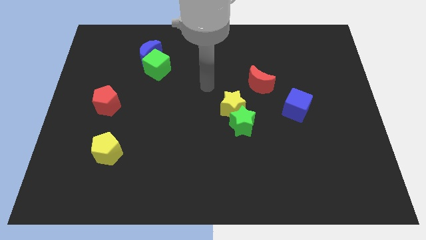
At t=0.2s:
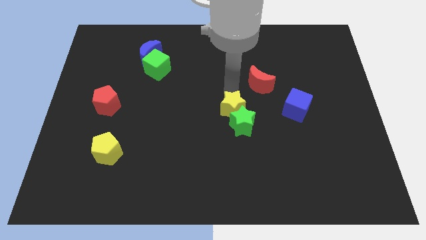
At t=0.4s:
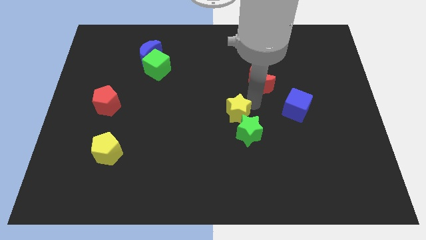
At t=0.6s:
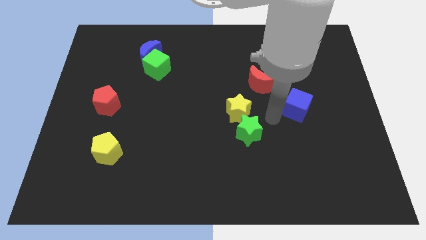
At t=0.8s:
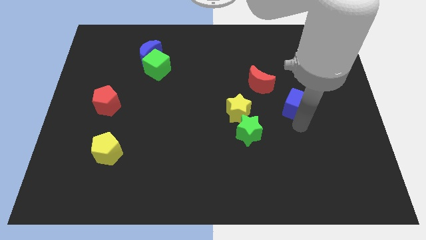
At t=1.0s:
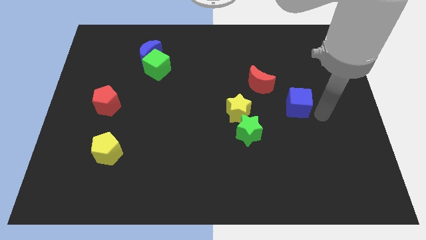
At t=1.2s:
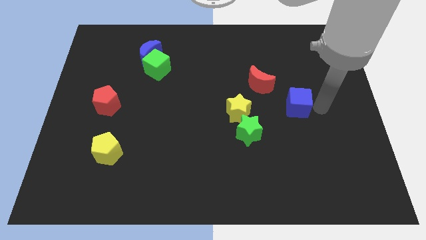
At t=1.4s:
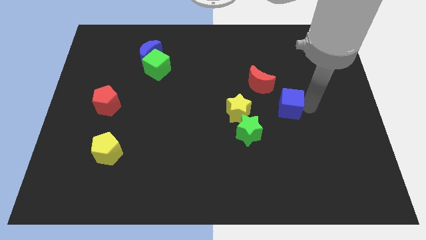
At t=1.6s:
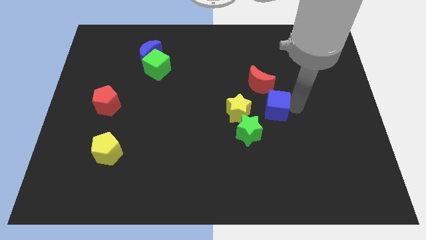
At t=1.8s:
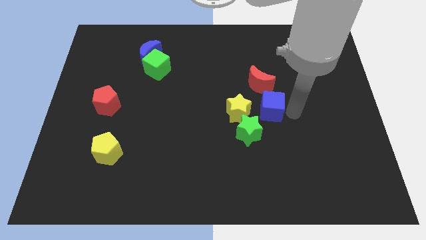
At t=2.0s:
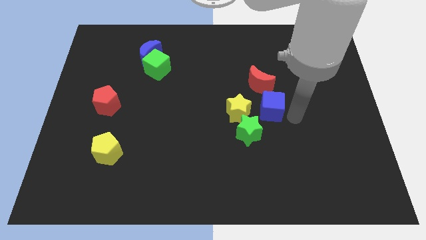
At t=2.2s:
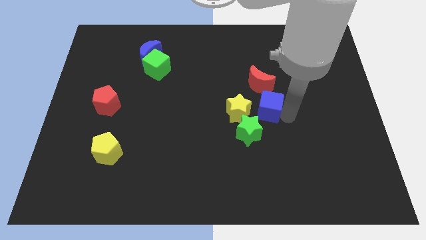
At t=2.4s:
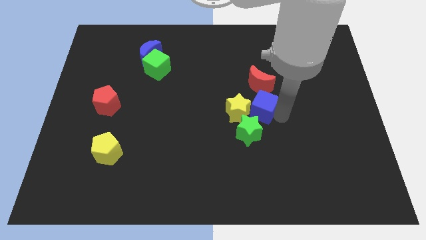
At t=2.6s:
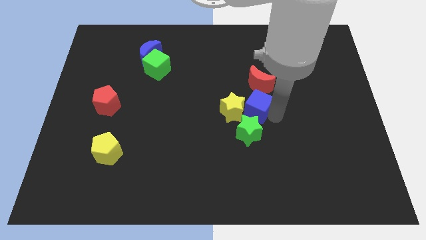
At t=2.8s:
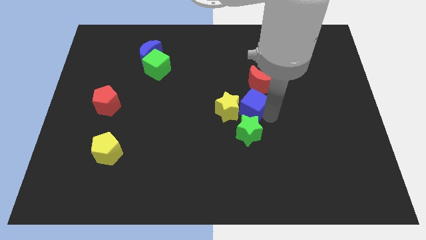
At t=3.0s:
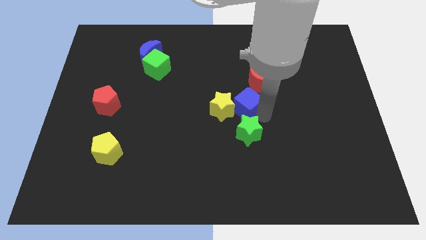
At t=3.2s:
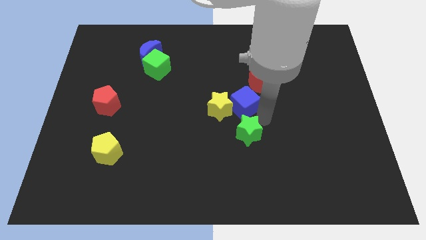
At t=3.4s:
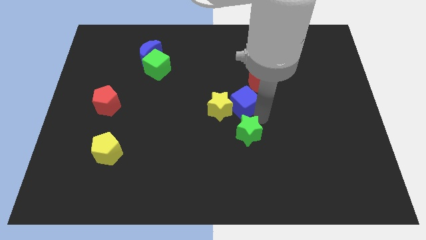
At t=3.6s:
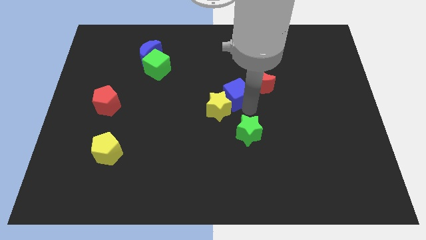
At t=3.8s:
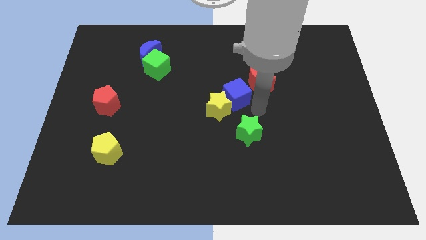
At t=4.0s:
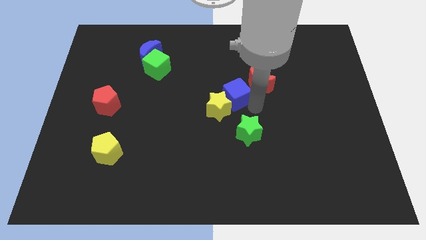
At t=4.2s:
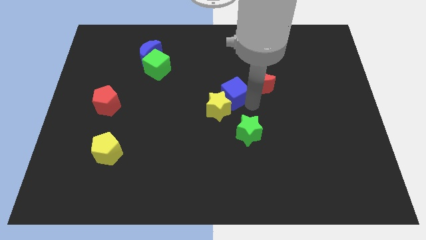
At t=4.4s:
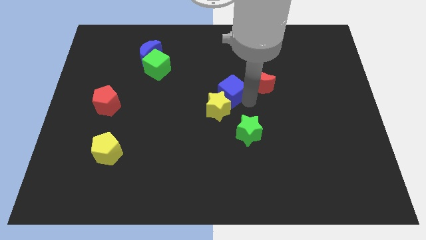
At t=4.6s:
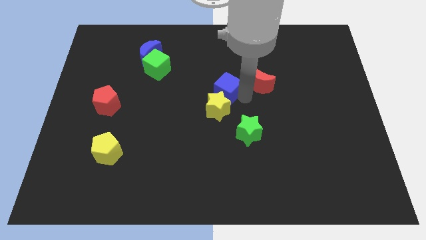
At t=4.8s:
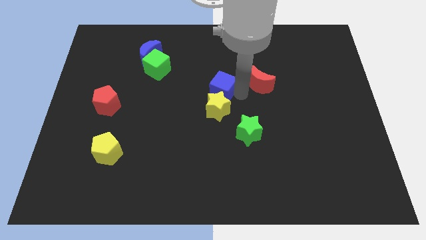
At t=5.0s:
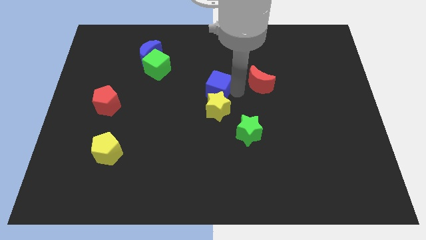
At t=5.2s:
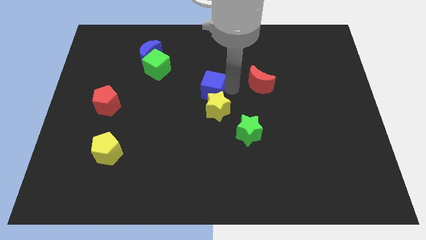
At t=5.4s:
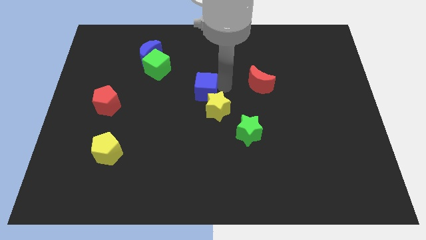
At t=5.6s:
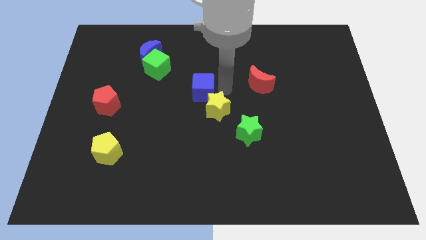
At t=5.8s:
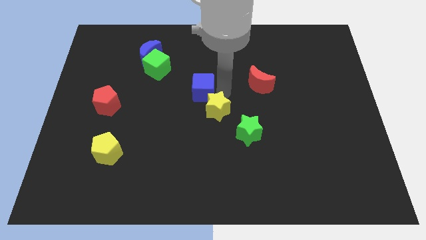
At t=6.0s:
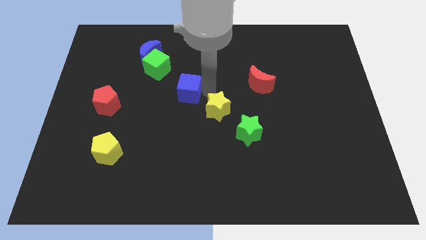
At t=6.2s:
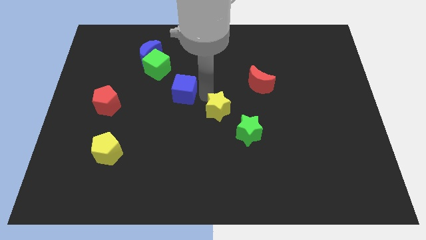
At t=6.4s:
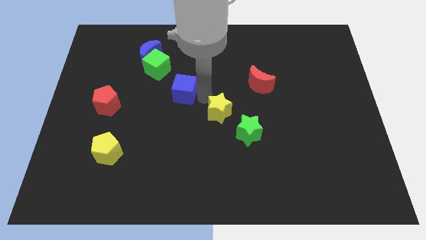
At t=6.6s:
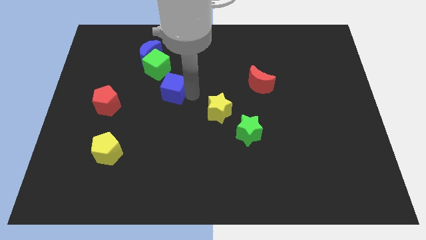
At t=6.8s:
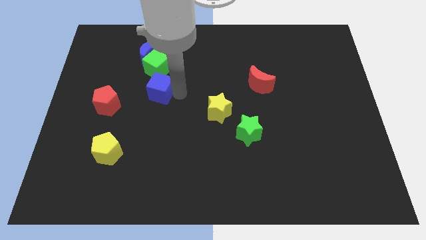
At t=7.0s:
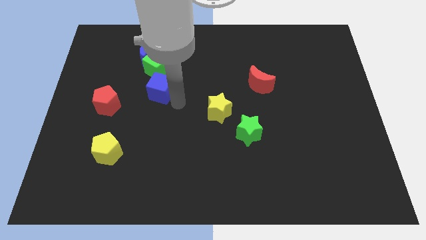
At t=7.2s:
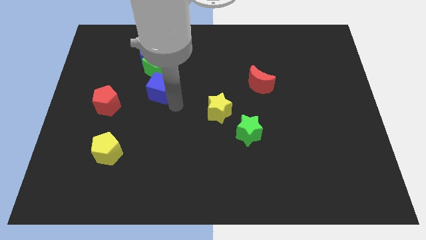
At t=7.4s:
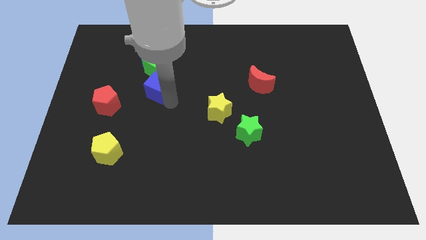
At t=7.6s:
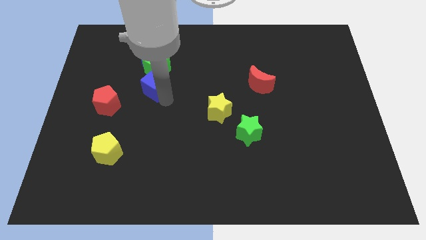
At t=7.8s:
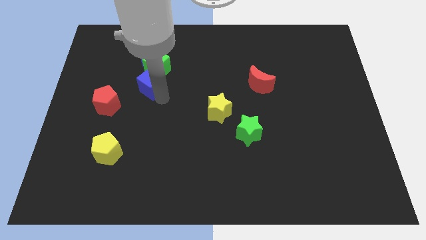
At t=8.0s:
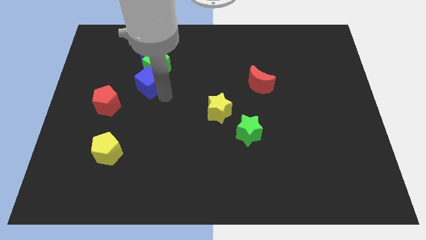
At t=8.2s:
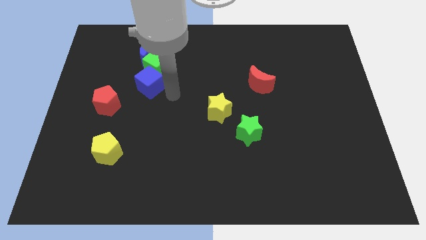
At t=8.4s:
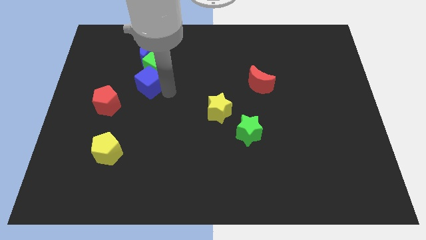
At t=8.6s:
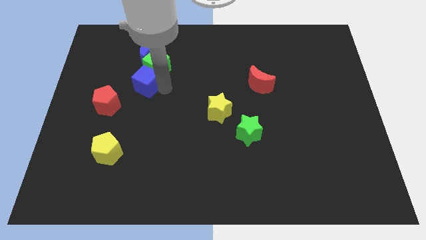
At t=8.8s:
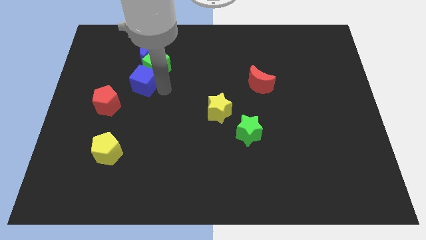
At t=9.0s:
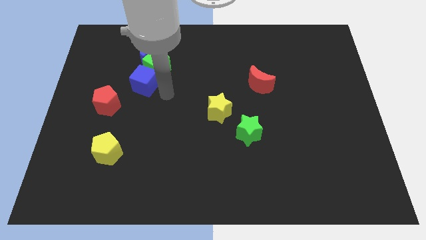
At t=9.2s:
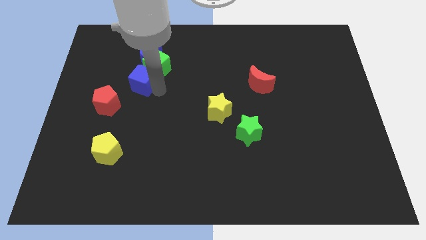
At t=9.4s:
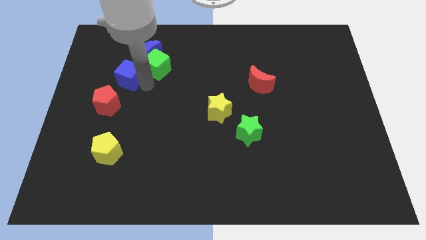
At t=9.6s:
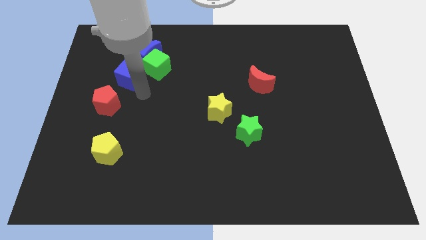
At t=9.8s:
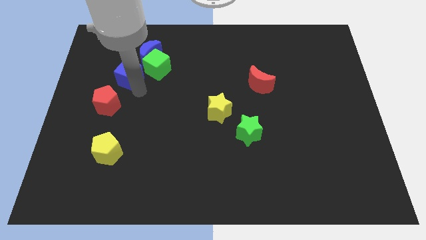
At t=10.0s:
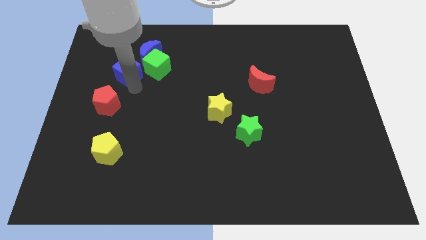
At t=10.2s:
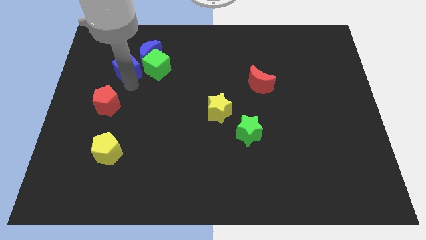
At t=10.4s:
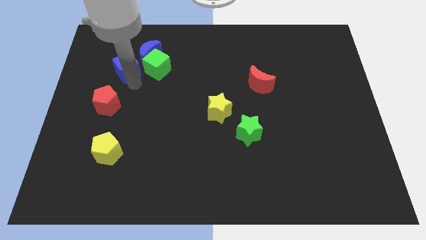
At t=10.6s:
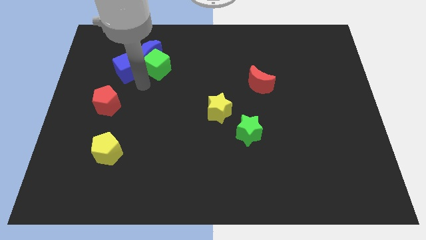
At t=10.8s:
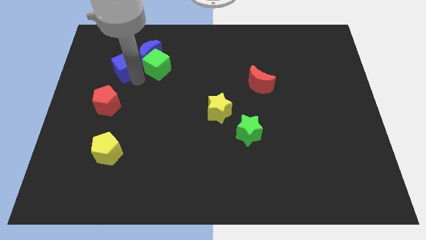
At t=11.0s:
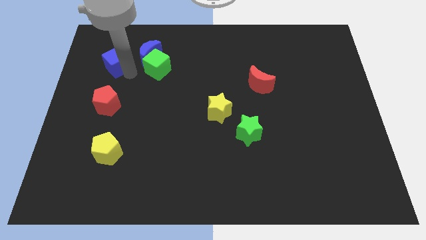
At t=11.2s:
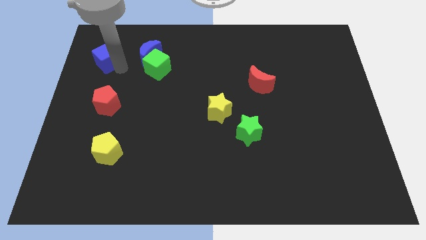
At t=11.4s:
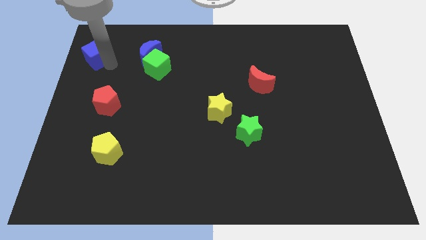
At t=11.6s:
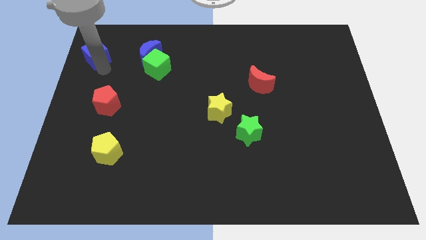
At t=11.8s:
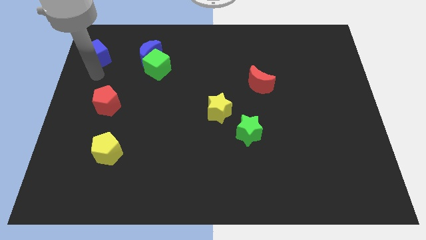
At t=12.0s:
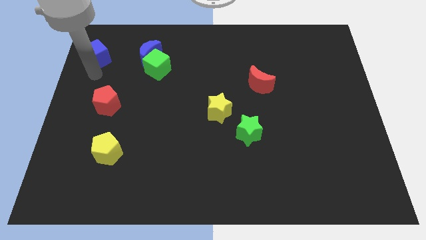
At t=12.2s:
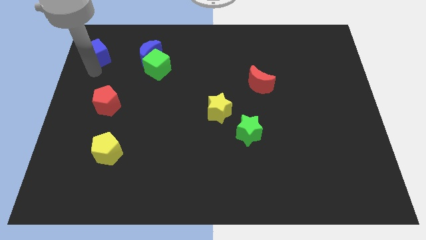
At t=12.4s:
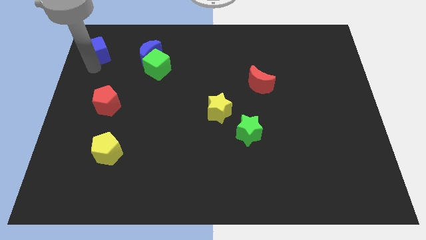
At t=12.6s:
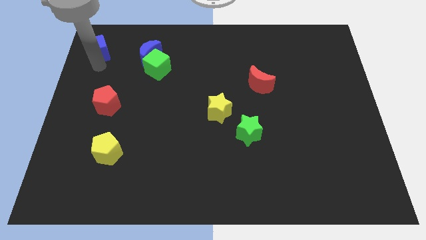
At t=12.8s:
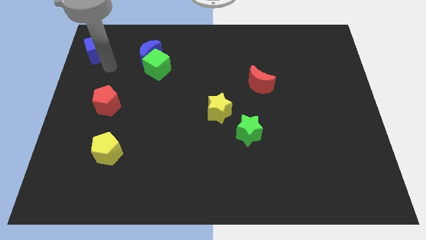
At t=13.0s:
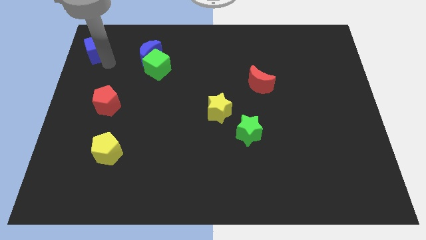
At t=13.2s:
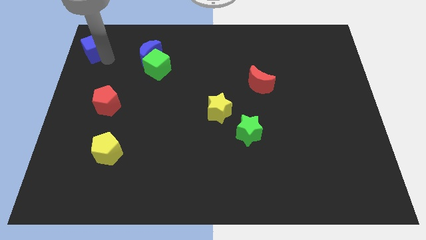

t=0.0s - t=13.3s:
put the blue cube to the top left of the board
